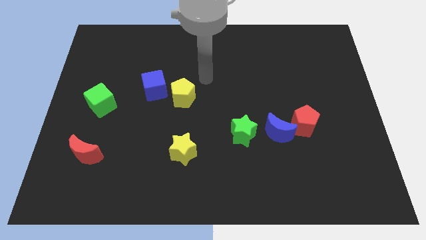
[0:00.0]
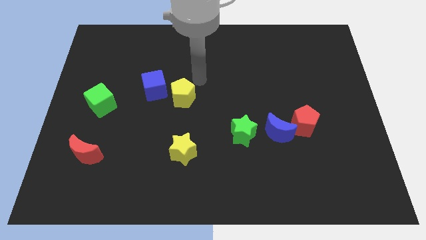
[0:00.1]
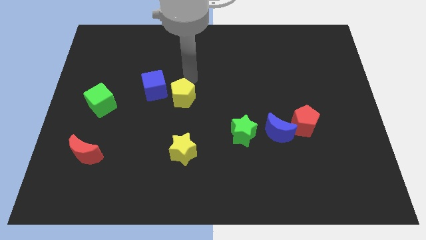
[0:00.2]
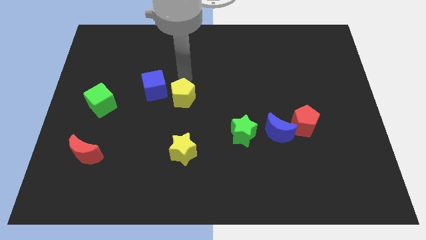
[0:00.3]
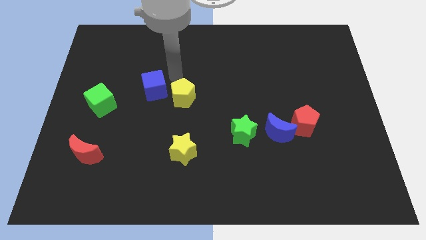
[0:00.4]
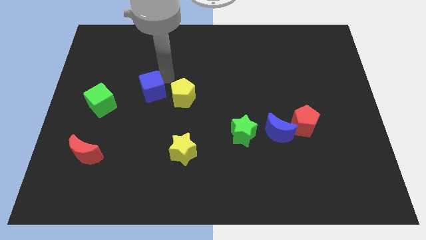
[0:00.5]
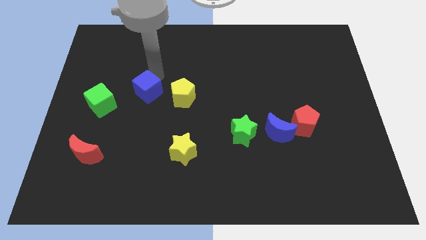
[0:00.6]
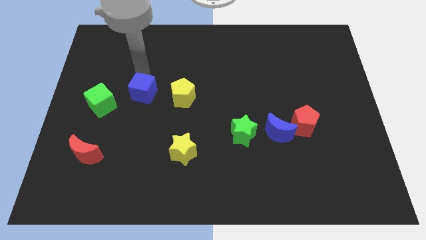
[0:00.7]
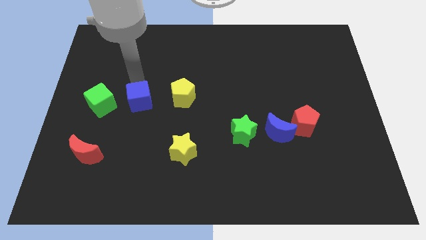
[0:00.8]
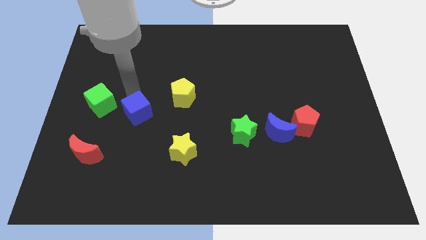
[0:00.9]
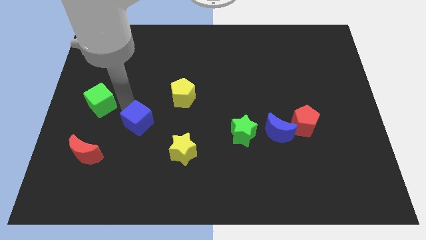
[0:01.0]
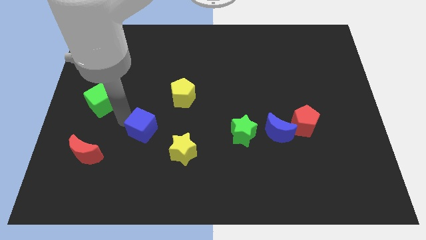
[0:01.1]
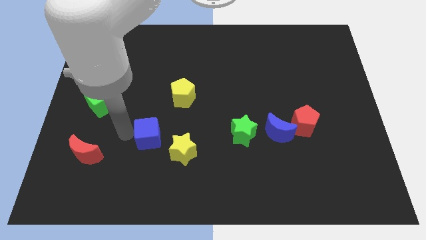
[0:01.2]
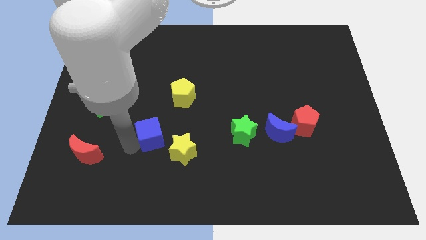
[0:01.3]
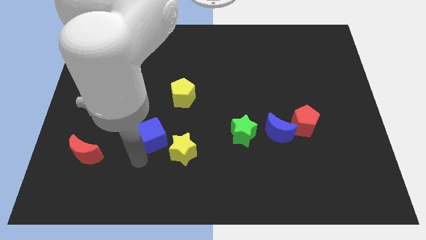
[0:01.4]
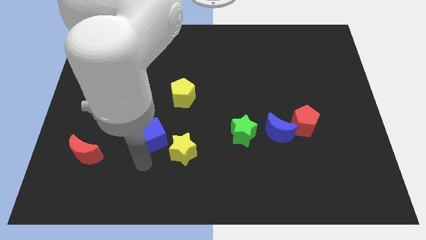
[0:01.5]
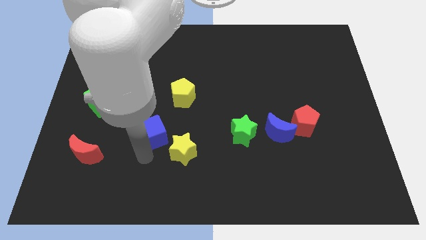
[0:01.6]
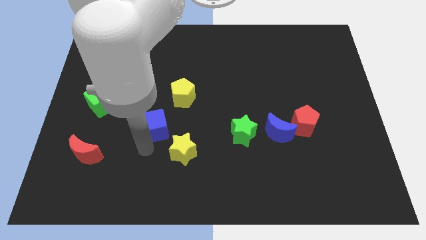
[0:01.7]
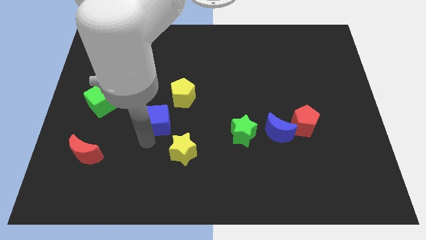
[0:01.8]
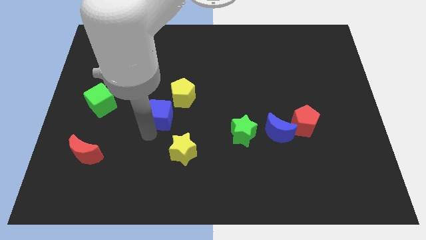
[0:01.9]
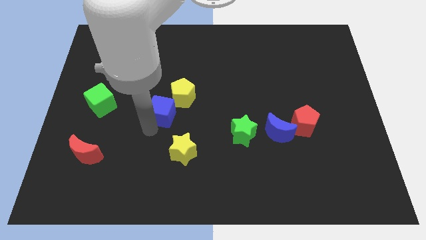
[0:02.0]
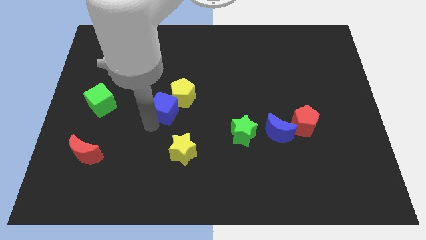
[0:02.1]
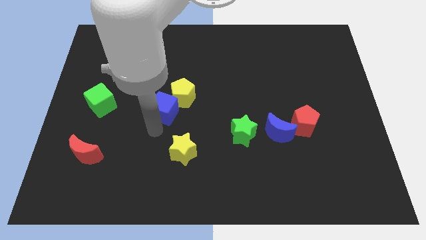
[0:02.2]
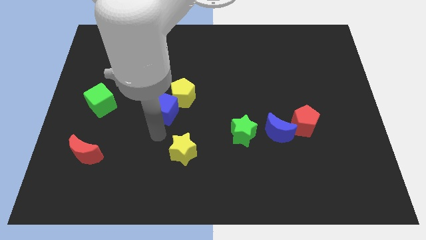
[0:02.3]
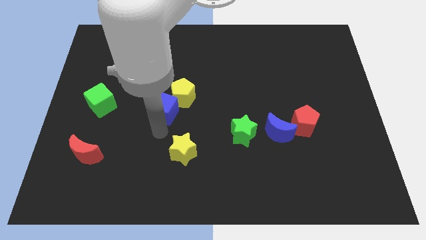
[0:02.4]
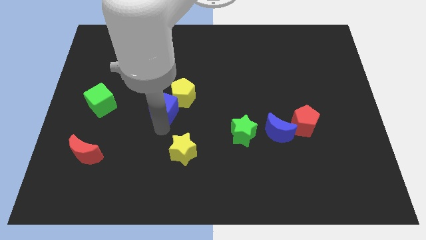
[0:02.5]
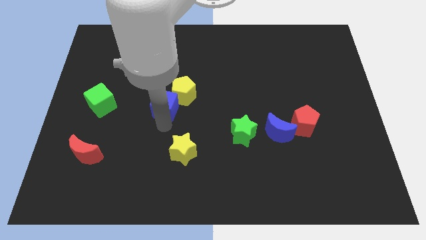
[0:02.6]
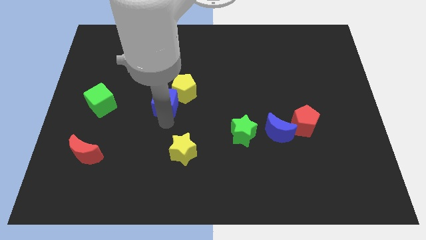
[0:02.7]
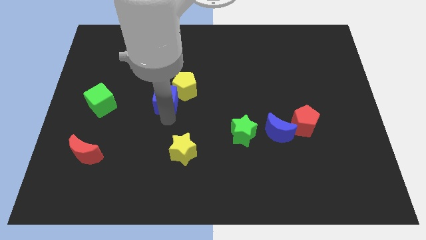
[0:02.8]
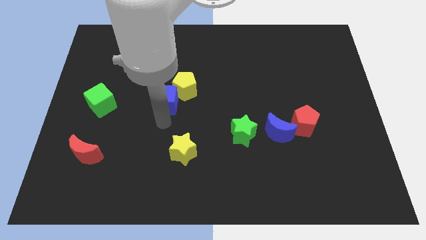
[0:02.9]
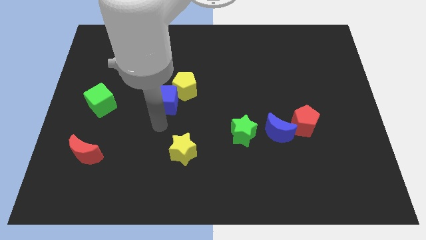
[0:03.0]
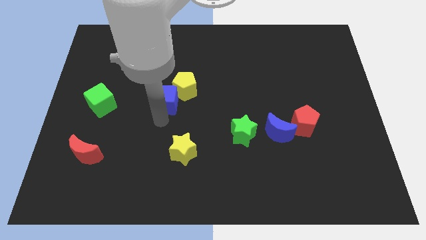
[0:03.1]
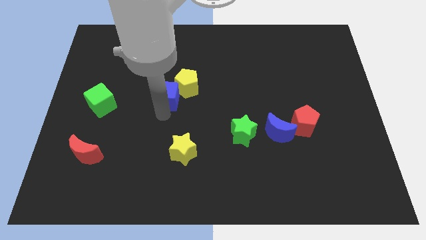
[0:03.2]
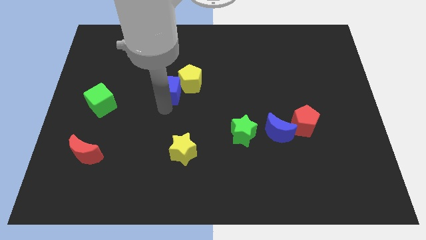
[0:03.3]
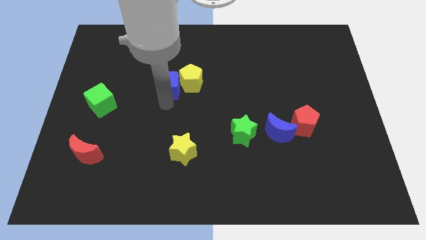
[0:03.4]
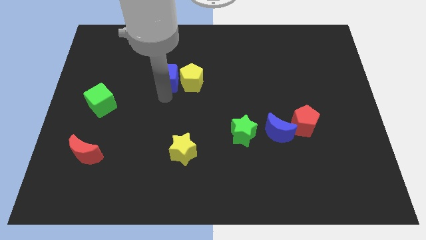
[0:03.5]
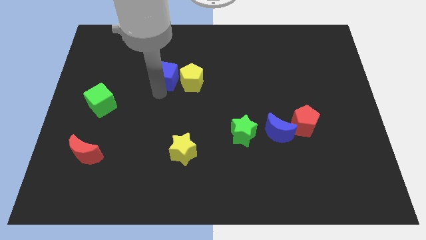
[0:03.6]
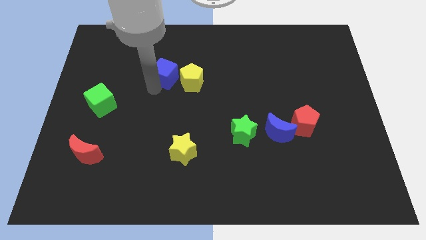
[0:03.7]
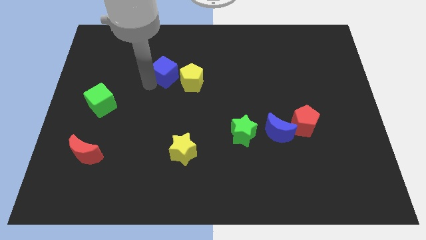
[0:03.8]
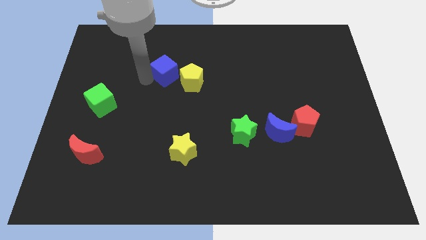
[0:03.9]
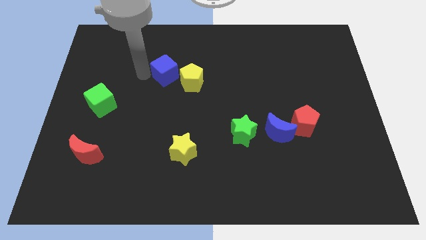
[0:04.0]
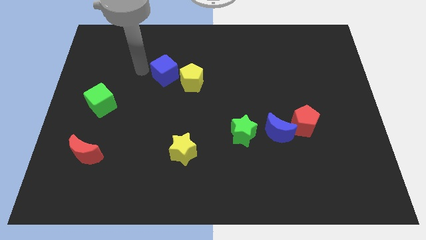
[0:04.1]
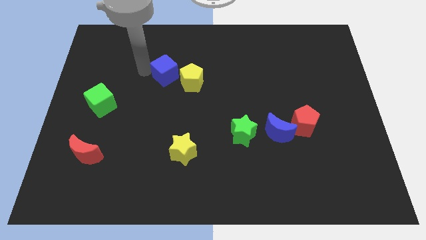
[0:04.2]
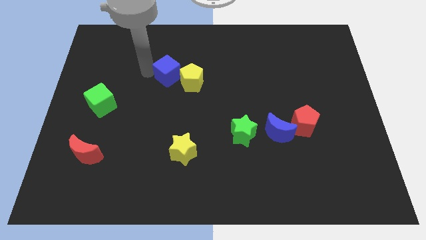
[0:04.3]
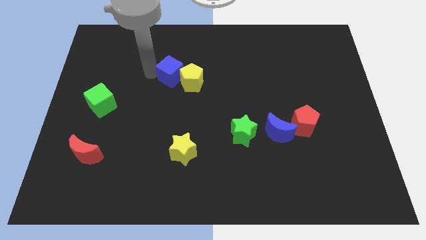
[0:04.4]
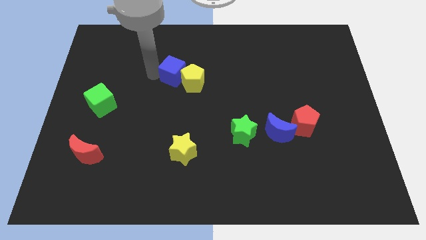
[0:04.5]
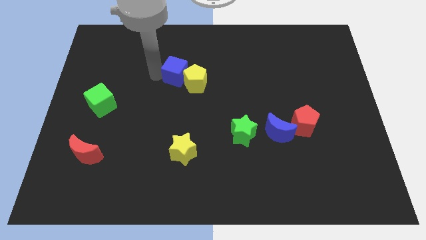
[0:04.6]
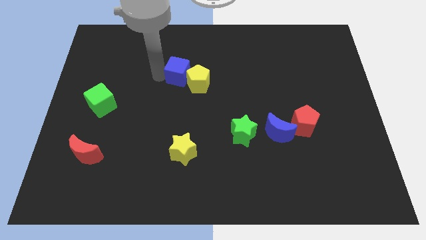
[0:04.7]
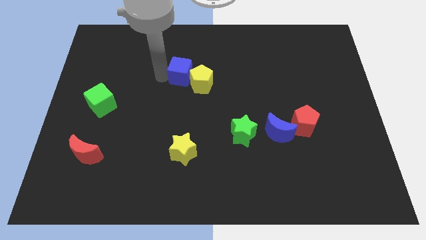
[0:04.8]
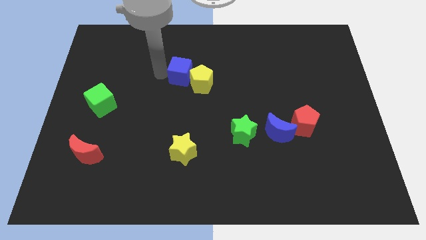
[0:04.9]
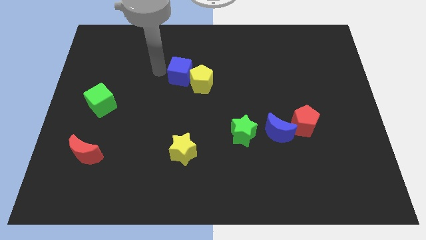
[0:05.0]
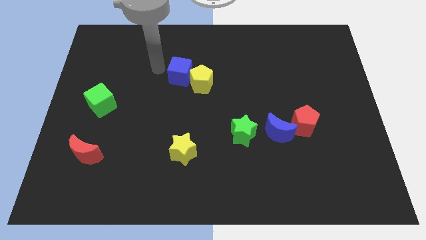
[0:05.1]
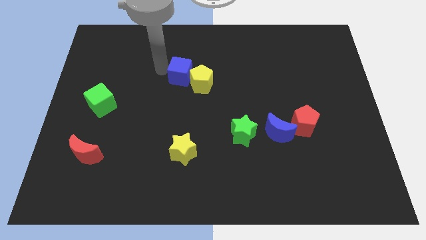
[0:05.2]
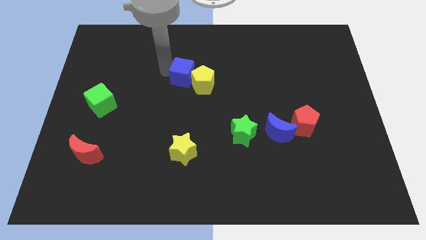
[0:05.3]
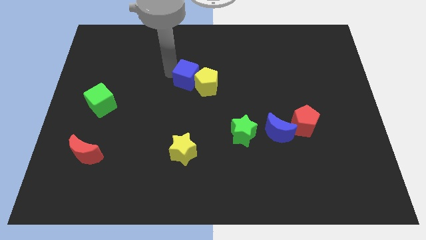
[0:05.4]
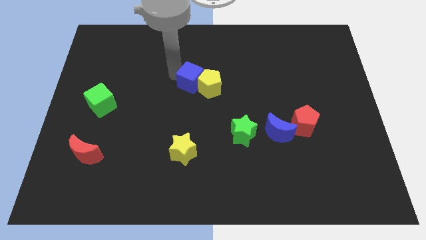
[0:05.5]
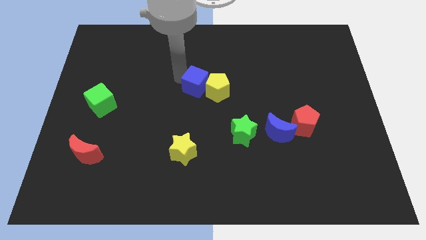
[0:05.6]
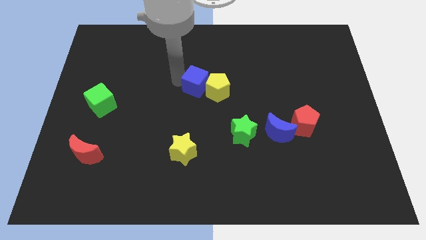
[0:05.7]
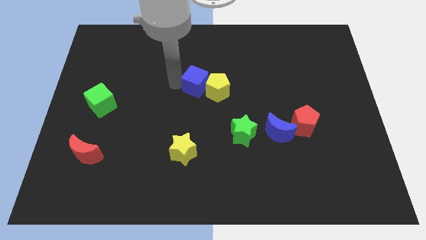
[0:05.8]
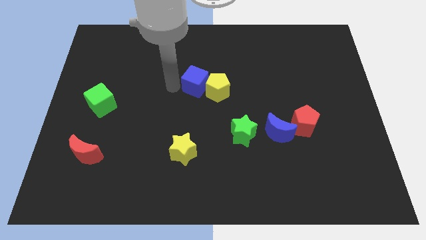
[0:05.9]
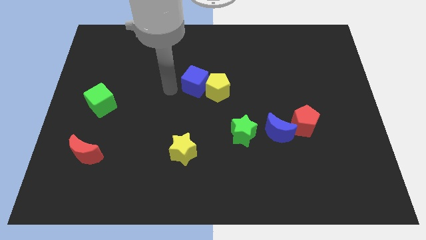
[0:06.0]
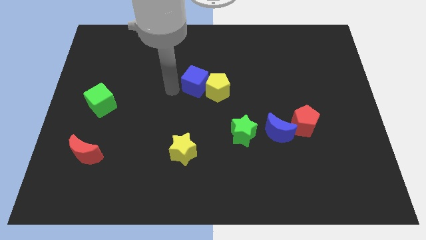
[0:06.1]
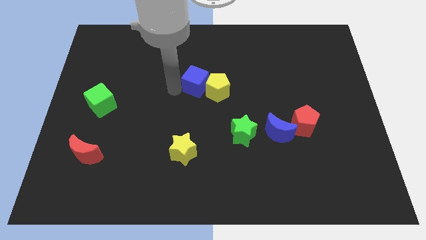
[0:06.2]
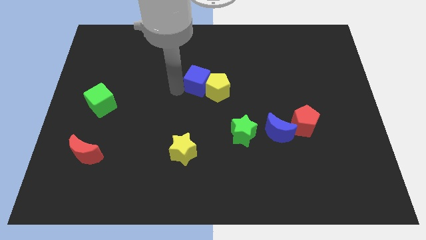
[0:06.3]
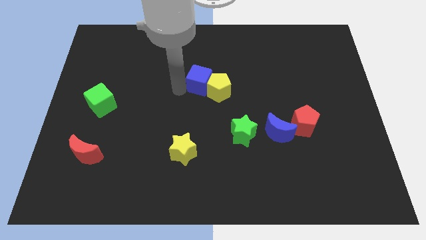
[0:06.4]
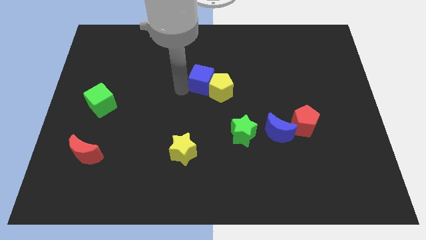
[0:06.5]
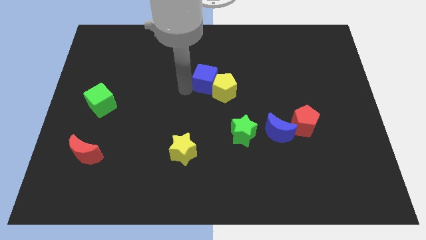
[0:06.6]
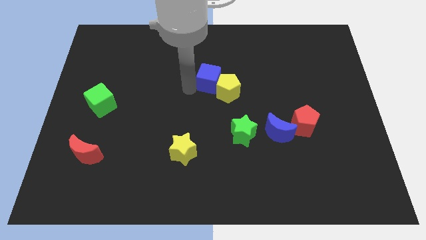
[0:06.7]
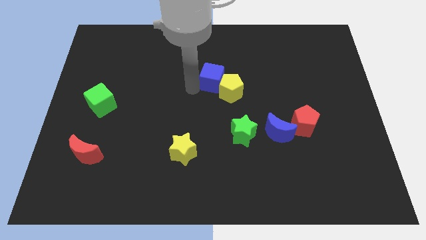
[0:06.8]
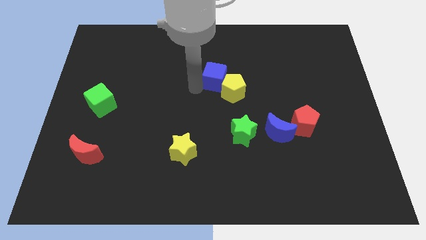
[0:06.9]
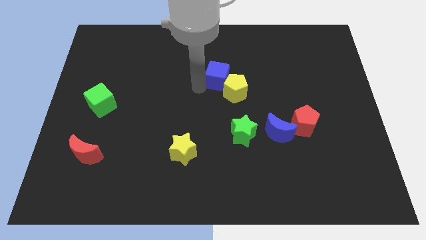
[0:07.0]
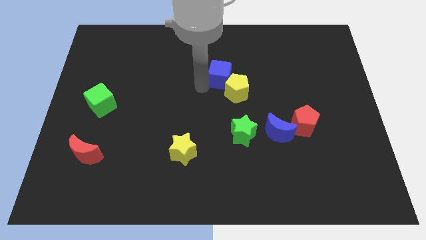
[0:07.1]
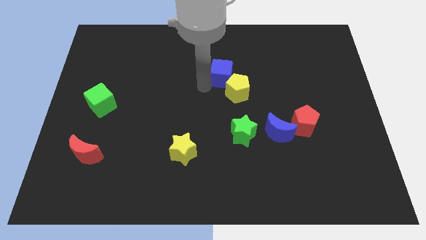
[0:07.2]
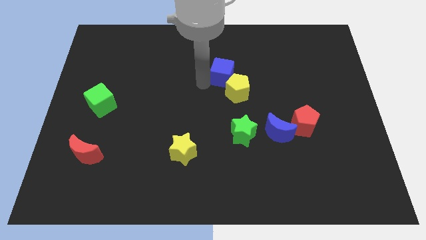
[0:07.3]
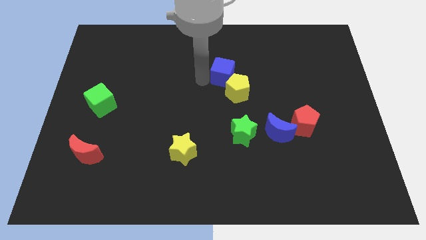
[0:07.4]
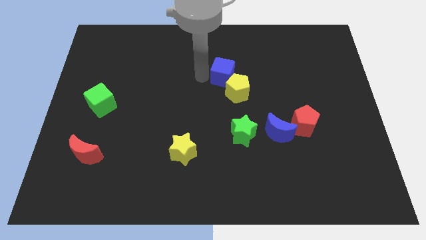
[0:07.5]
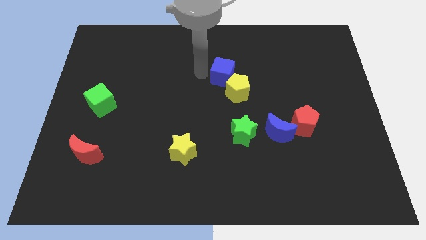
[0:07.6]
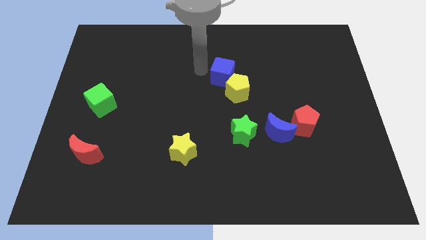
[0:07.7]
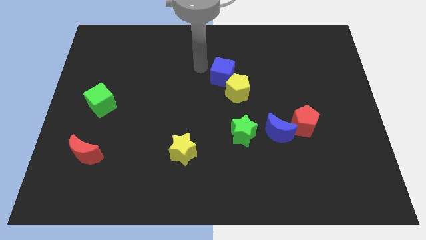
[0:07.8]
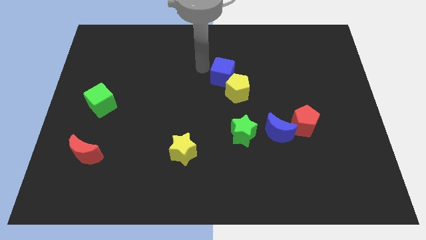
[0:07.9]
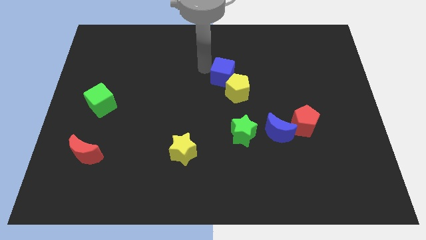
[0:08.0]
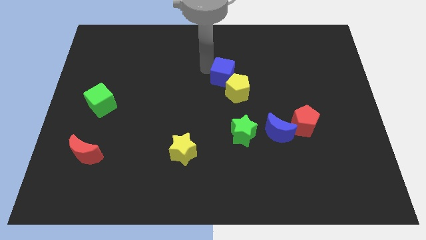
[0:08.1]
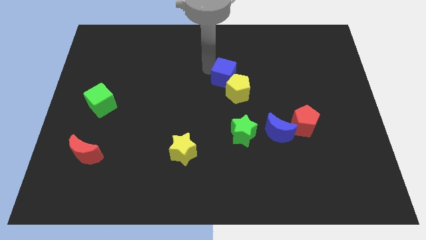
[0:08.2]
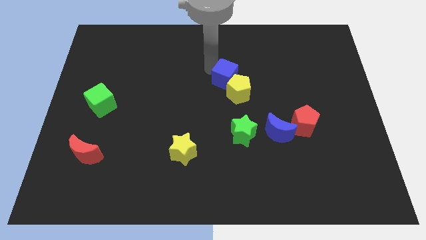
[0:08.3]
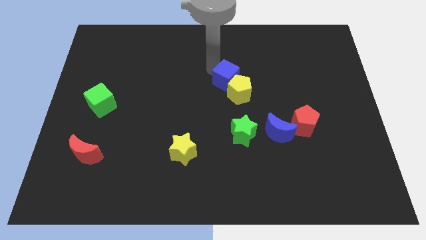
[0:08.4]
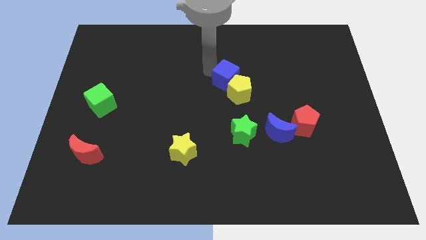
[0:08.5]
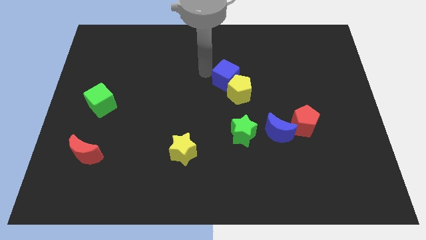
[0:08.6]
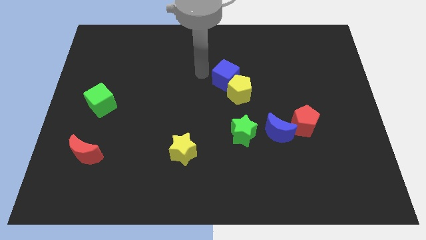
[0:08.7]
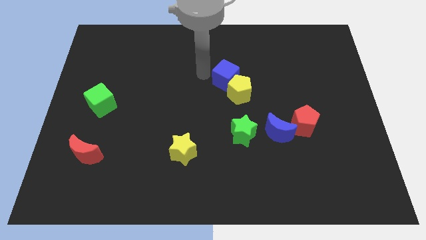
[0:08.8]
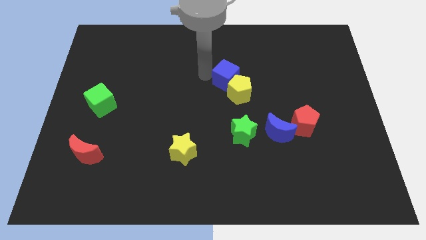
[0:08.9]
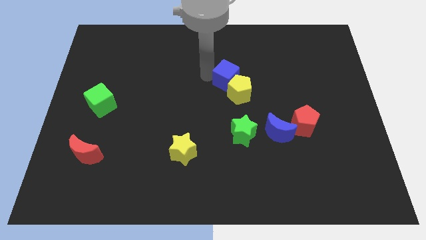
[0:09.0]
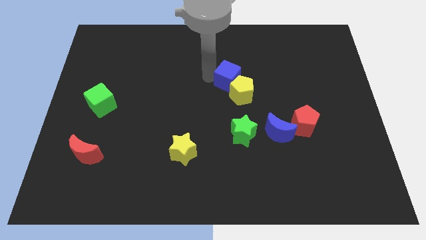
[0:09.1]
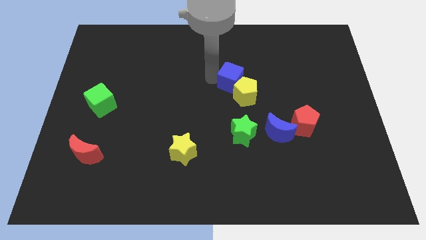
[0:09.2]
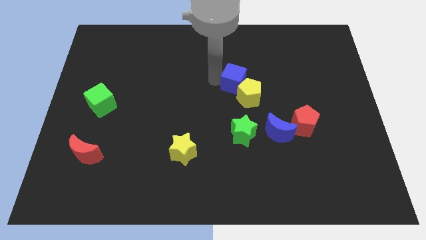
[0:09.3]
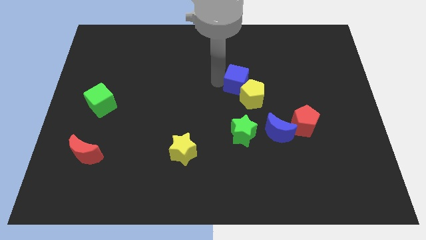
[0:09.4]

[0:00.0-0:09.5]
push the blue cube right
